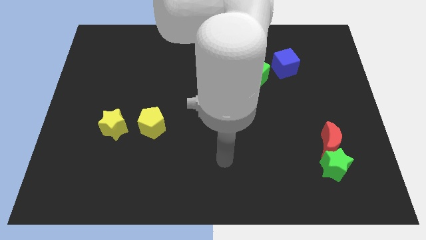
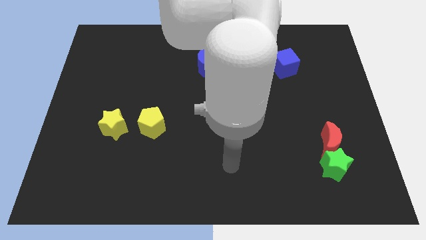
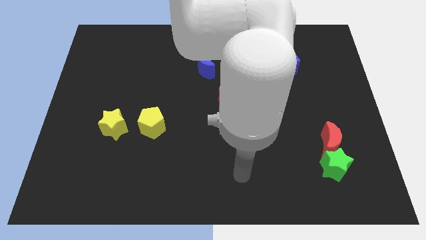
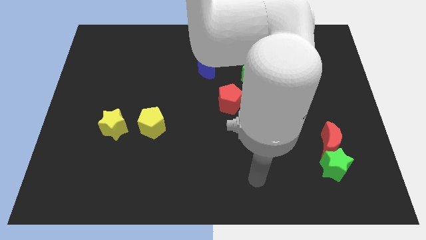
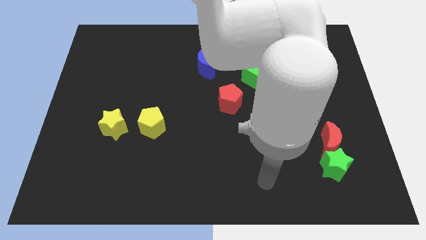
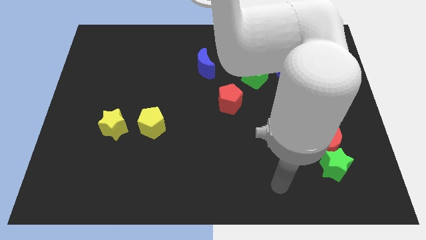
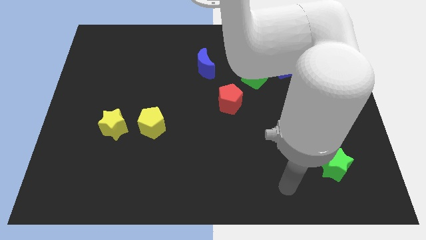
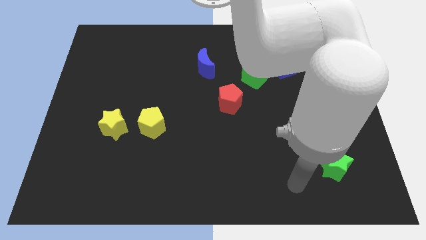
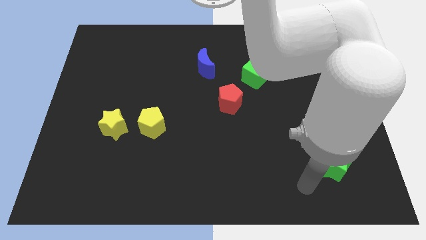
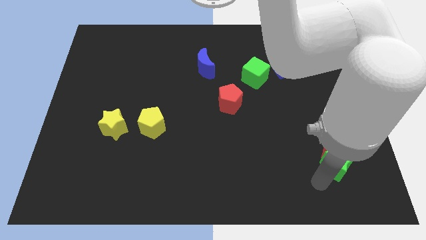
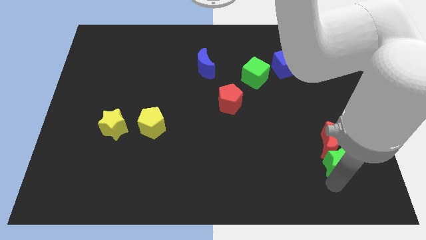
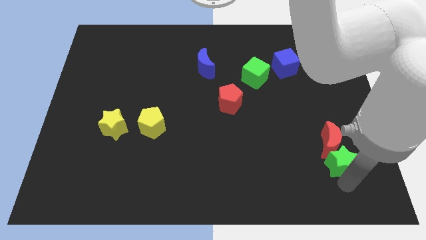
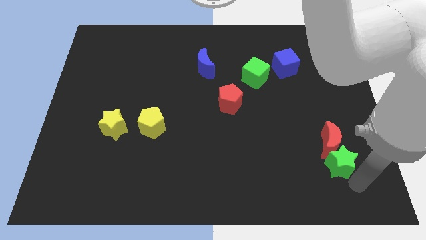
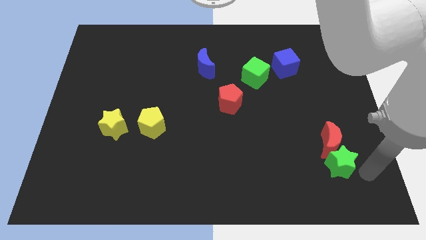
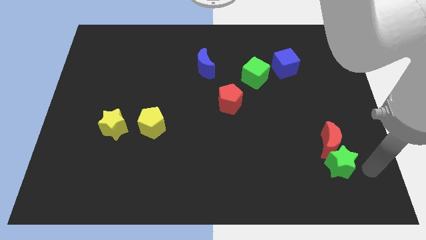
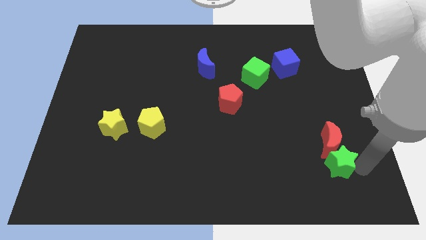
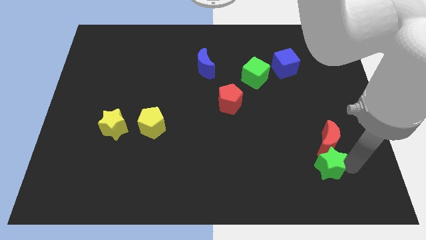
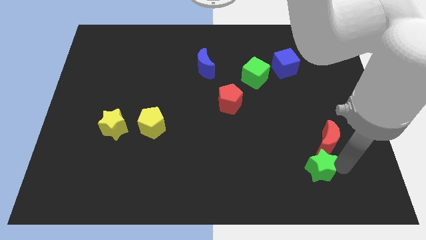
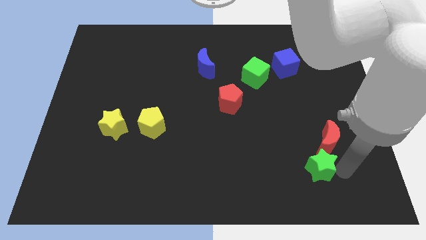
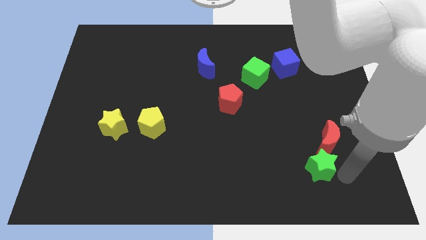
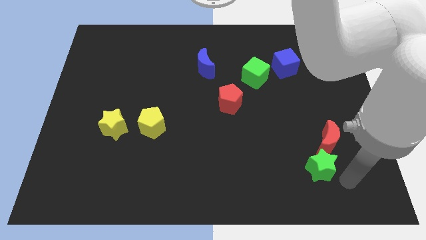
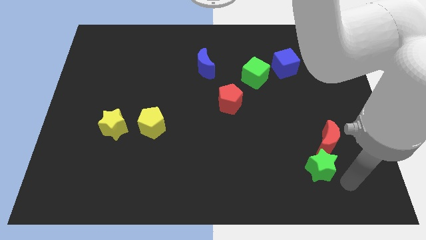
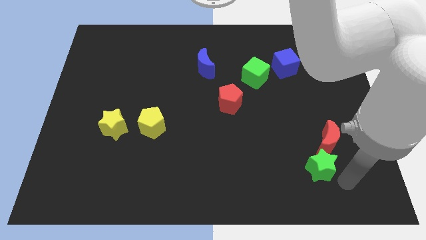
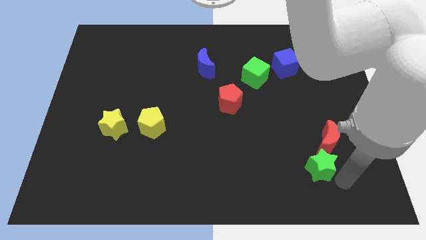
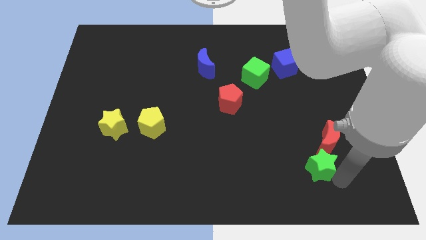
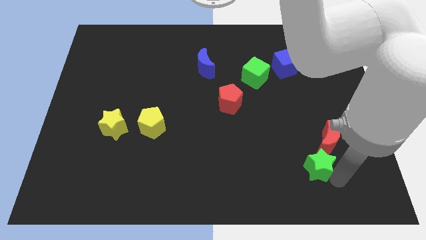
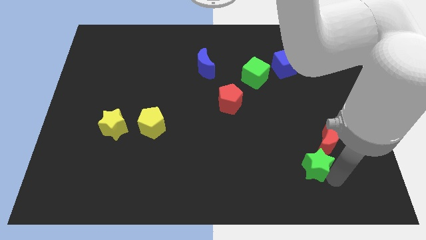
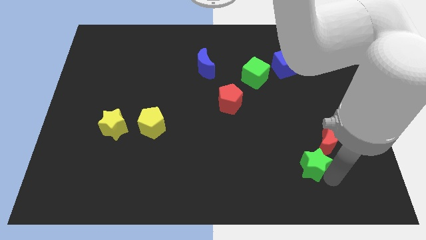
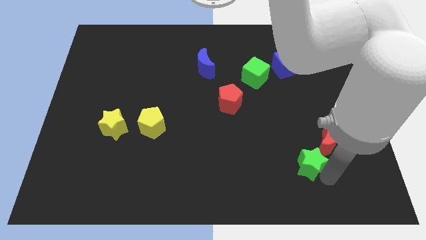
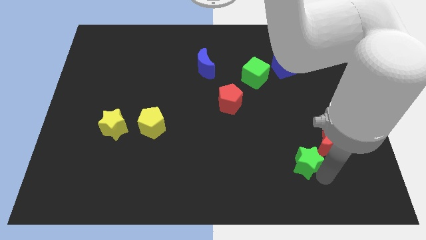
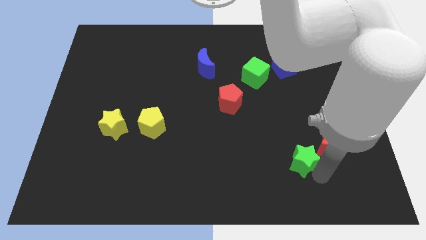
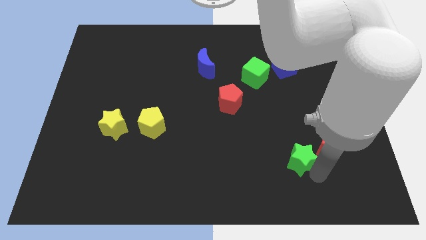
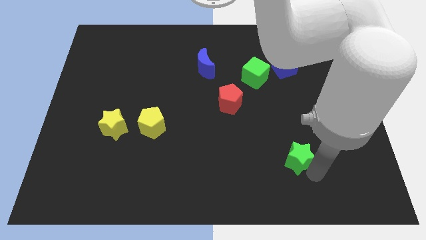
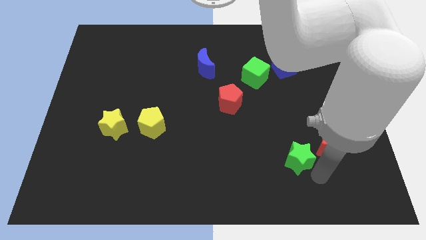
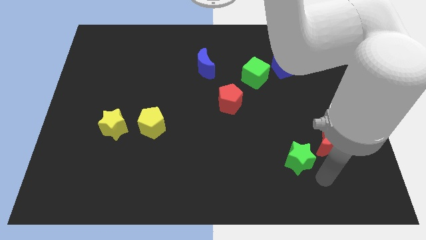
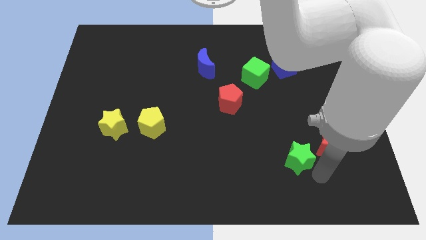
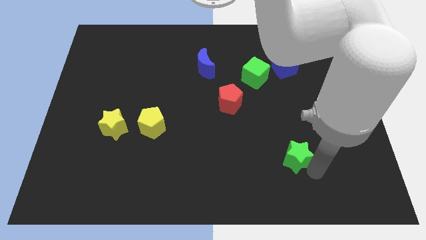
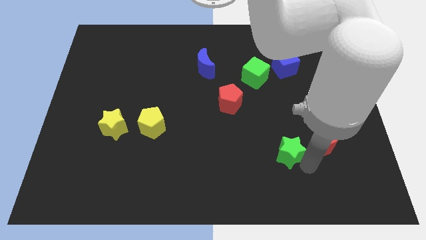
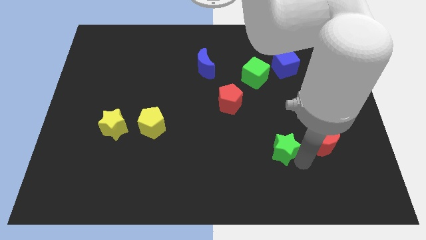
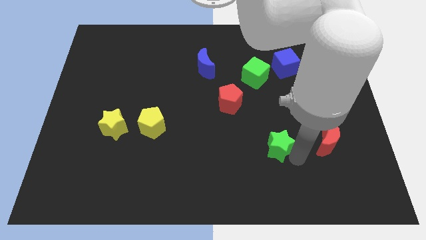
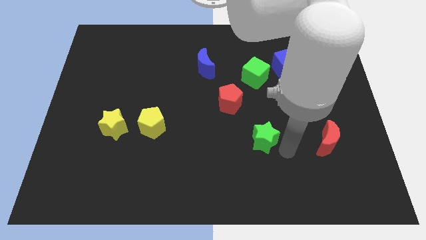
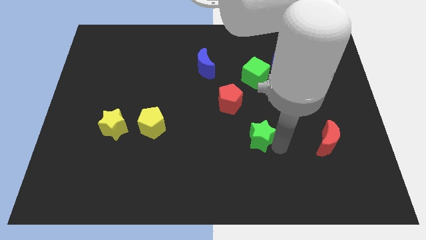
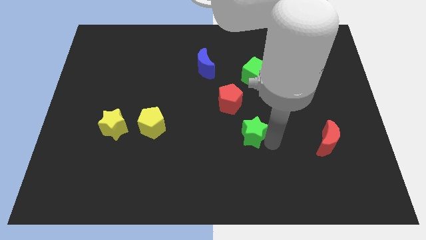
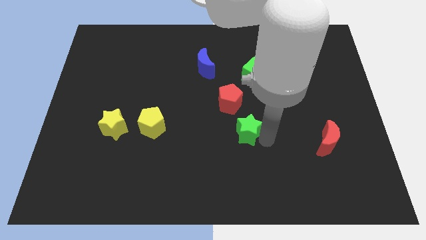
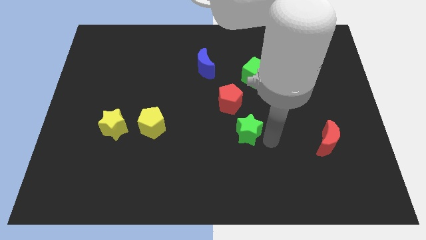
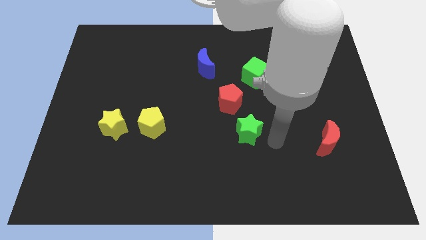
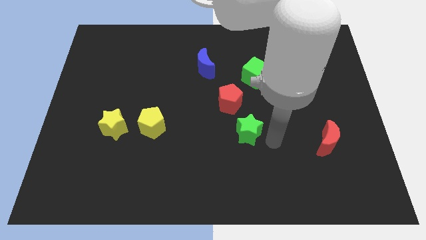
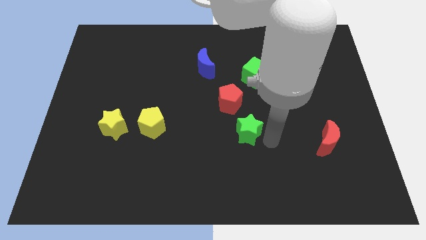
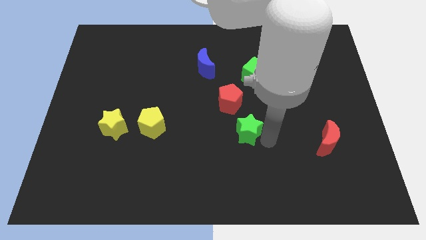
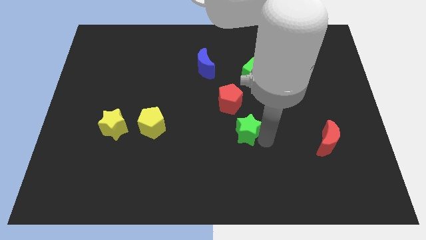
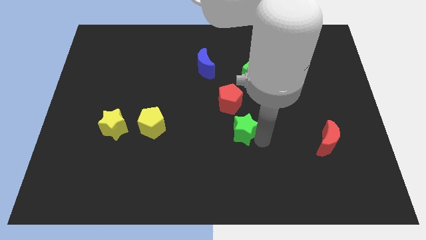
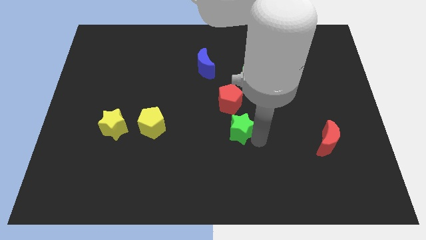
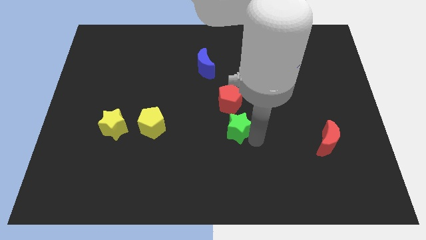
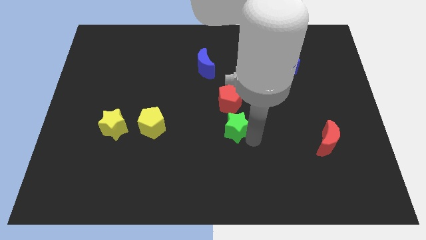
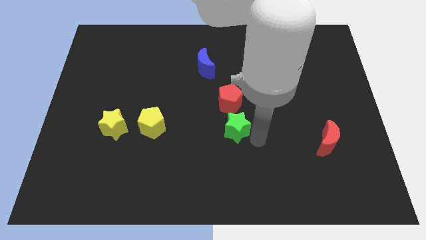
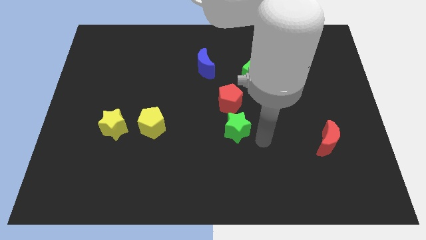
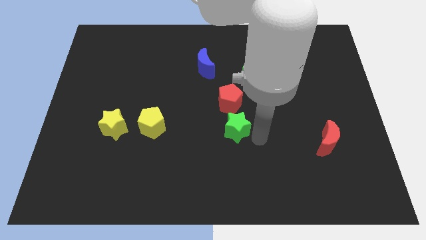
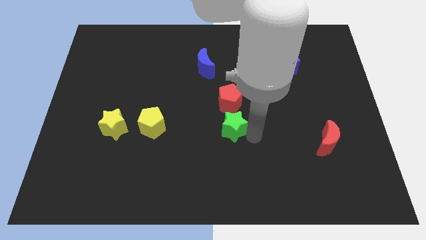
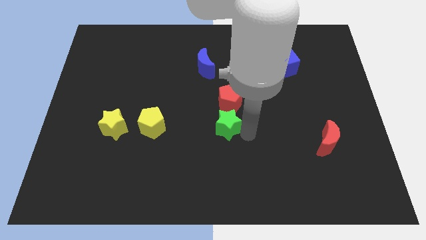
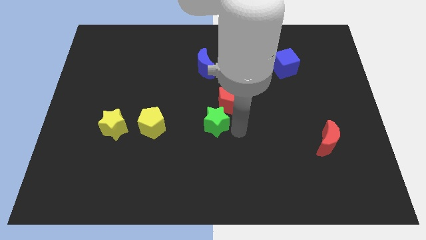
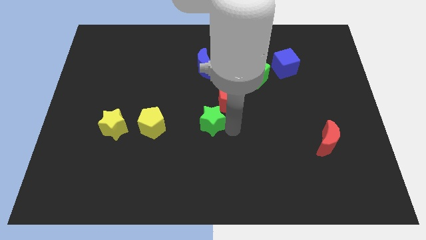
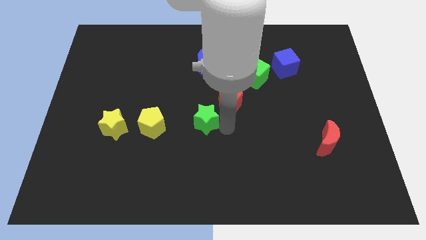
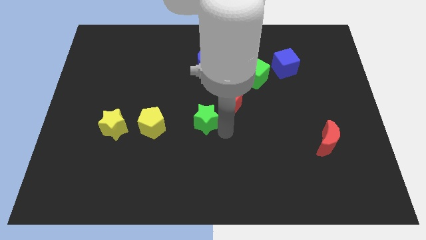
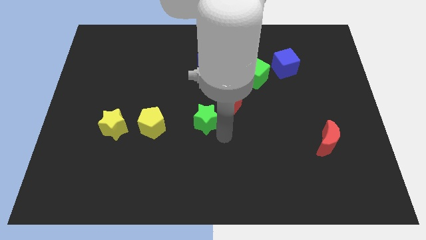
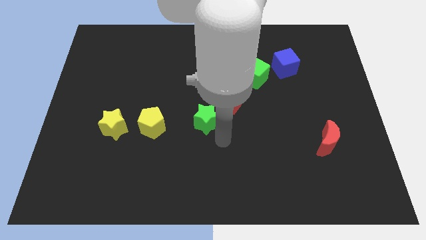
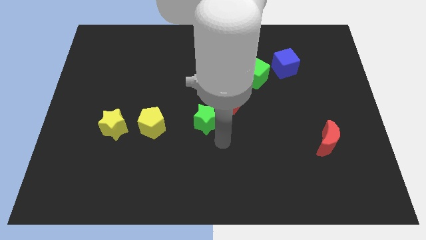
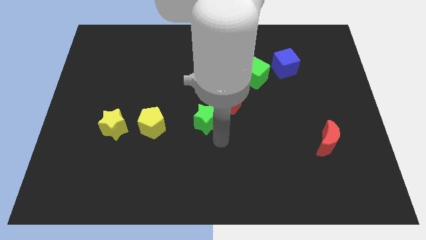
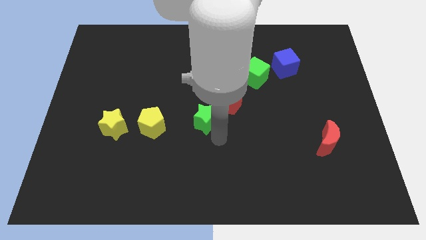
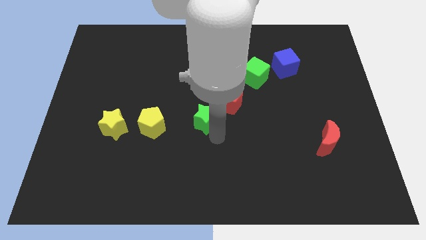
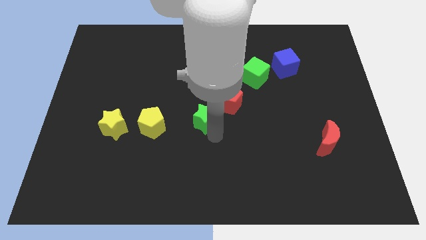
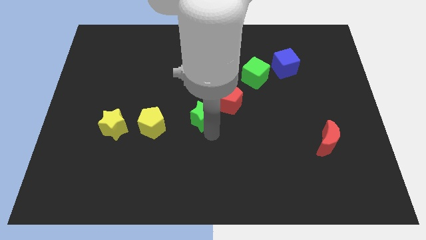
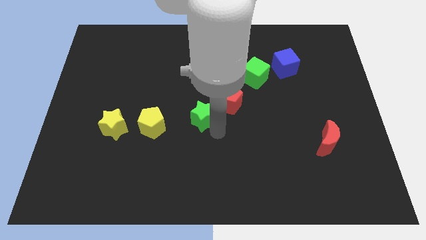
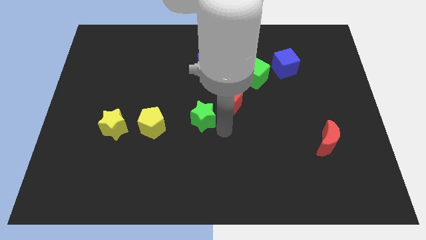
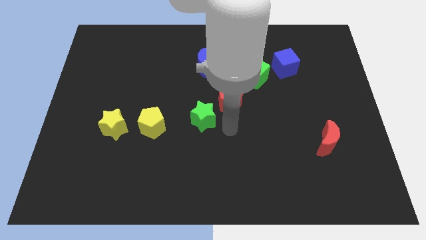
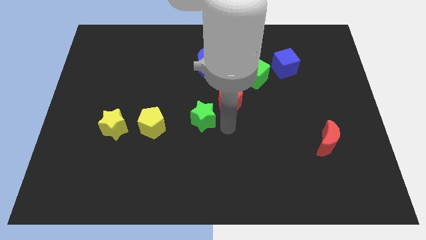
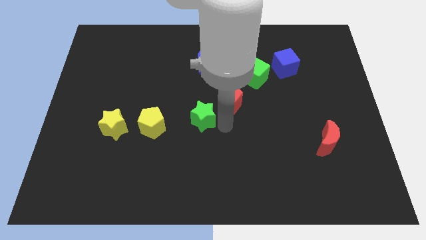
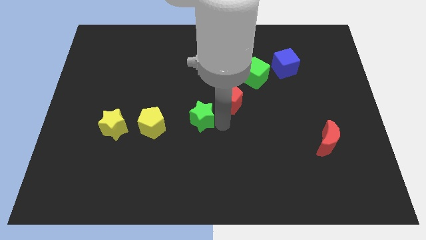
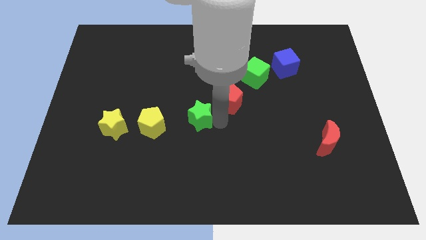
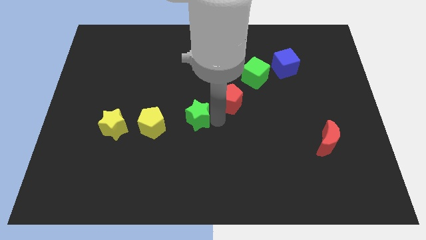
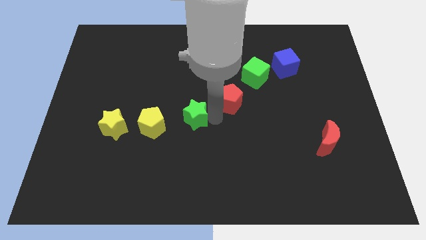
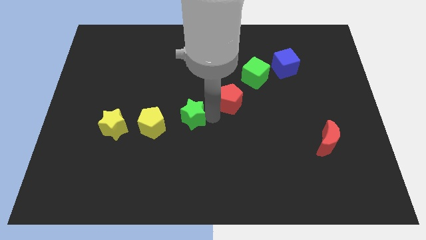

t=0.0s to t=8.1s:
push the green star diagonally up and to the right of the yellow pentagon
